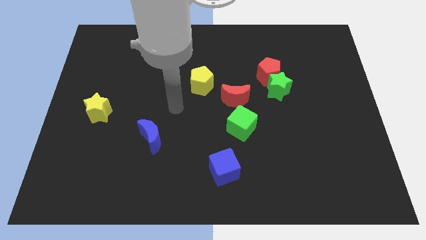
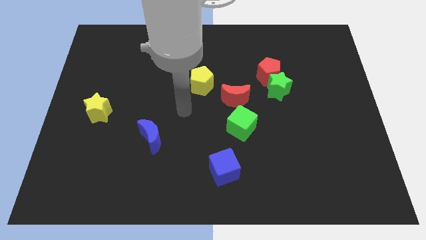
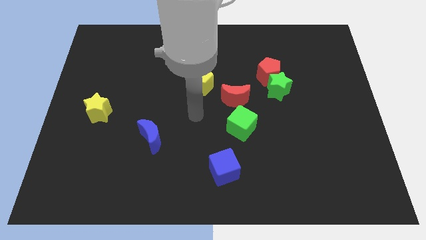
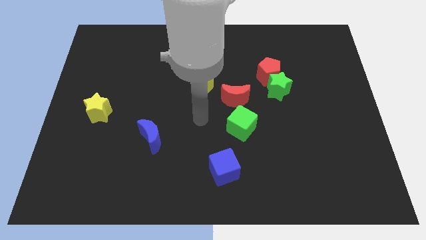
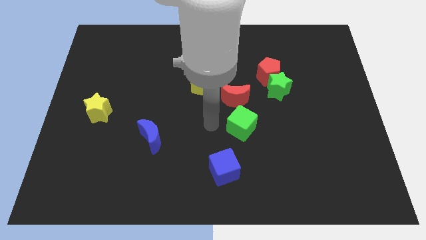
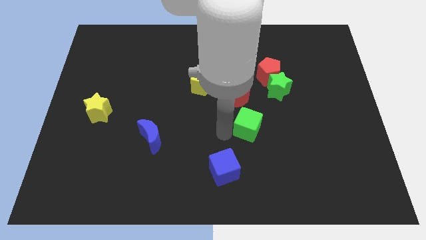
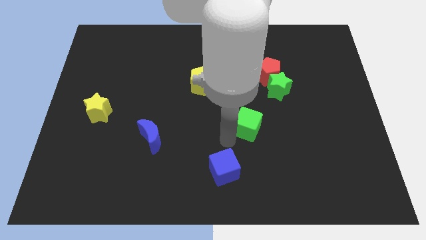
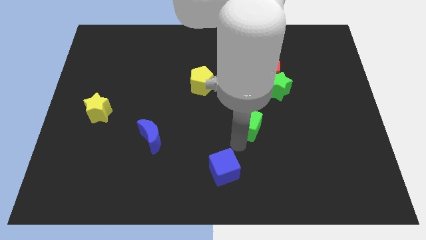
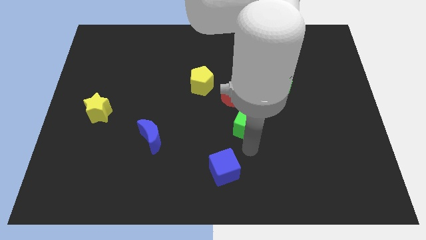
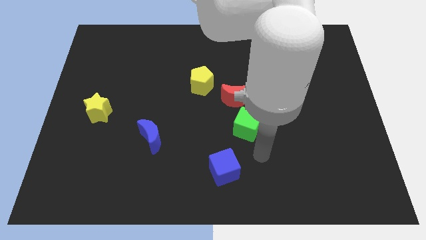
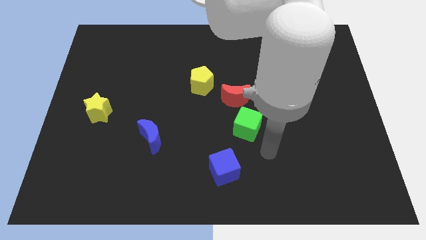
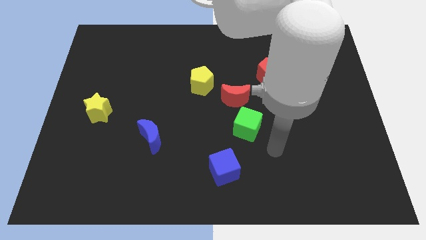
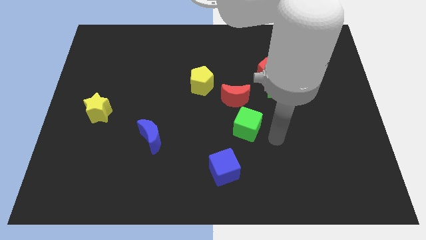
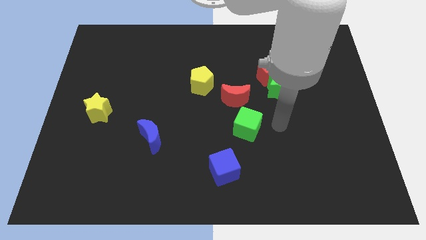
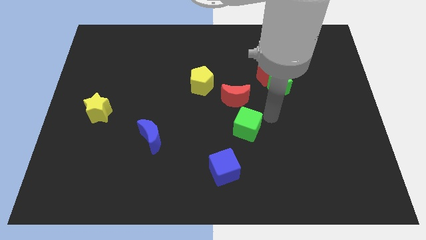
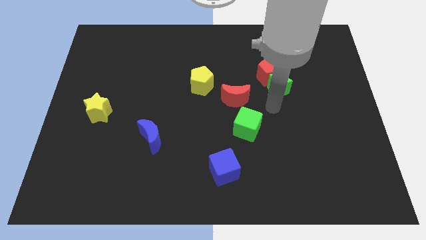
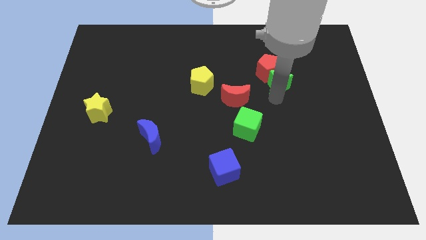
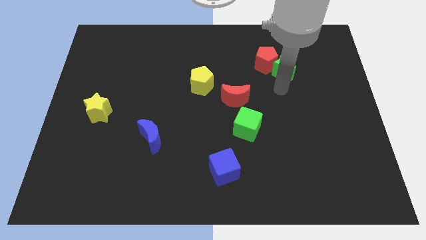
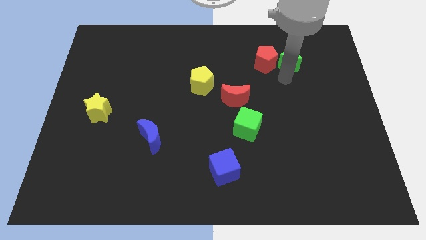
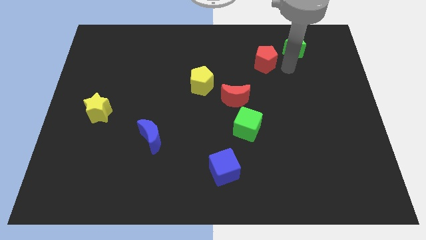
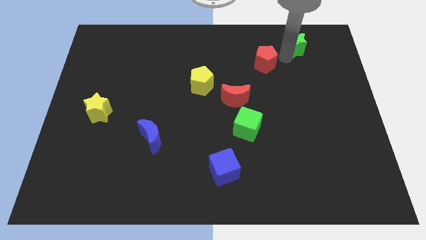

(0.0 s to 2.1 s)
separate the red pentagon from the green star

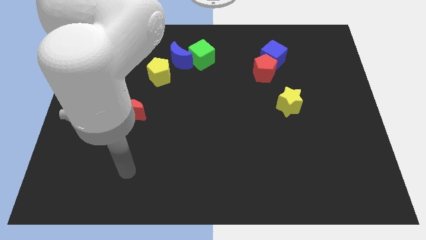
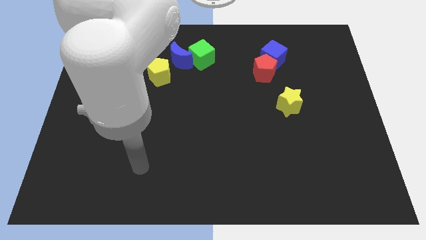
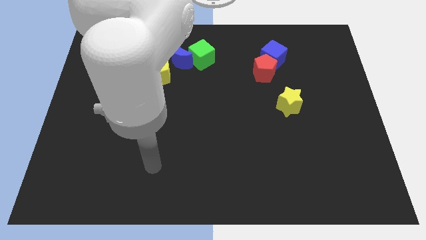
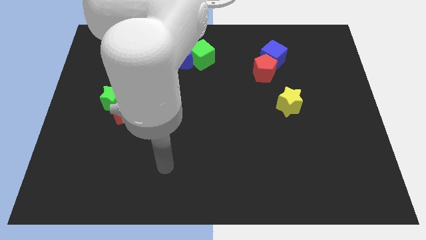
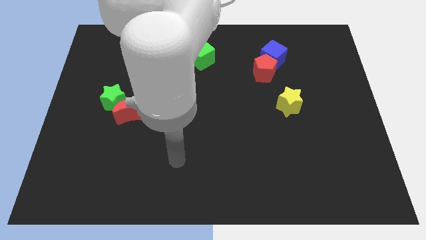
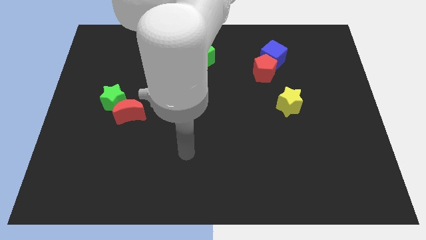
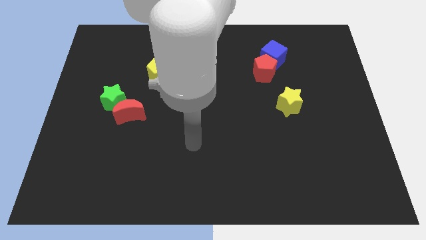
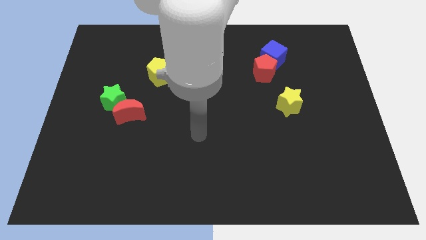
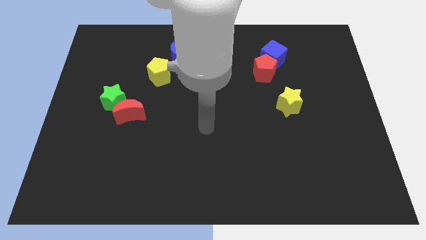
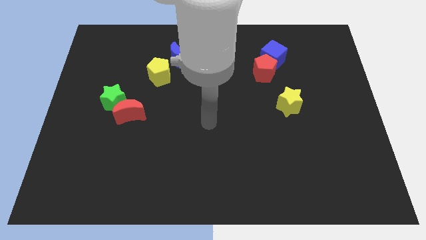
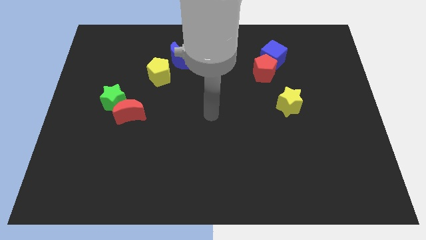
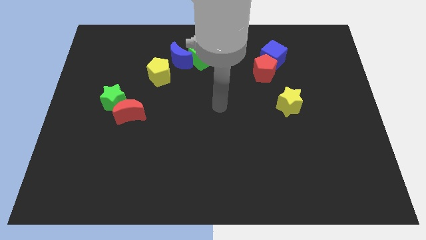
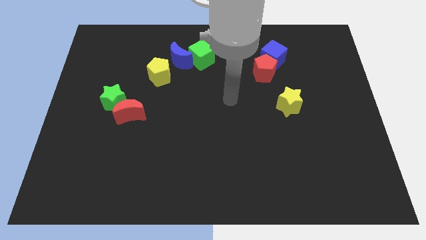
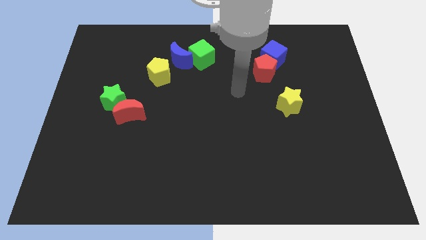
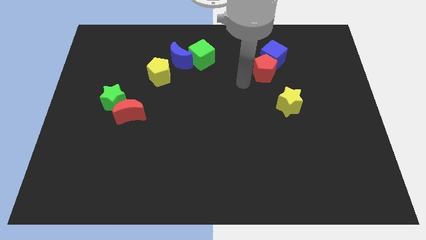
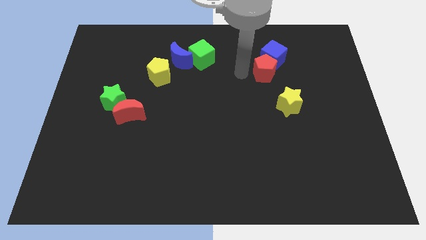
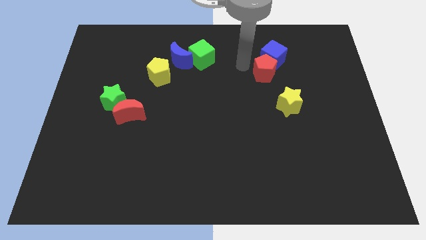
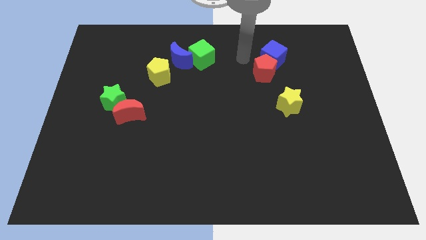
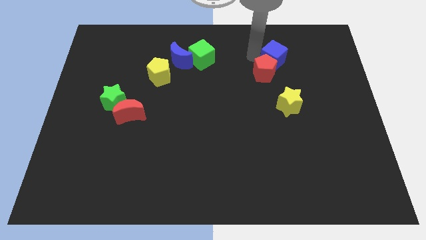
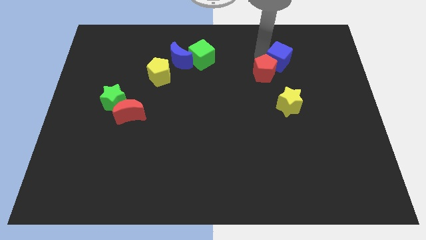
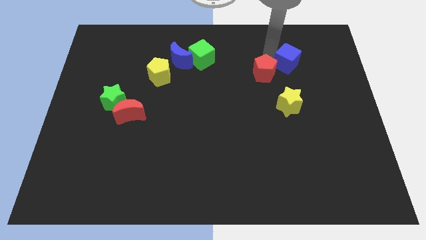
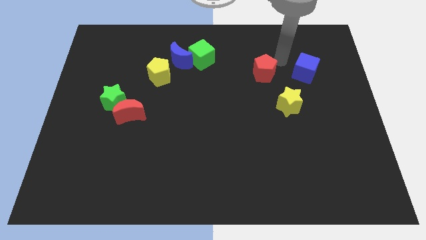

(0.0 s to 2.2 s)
pull the red pentagon apart from the blue cube

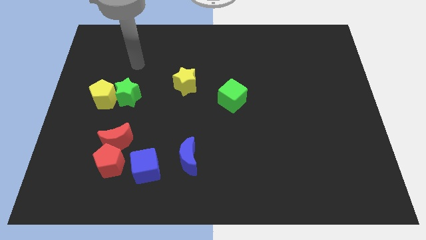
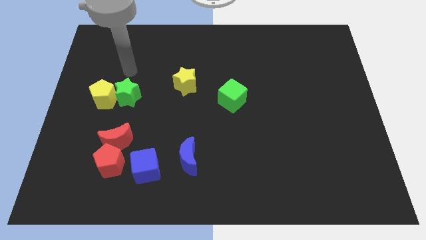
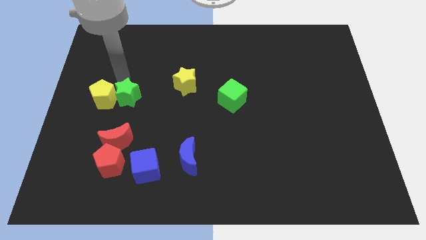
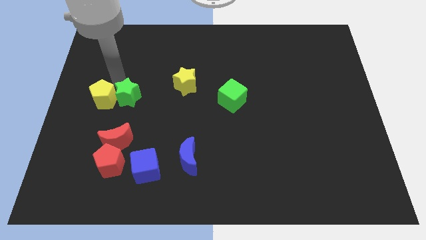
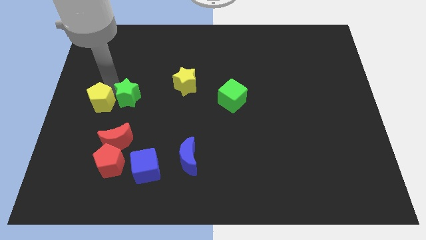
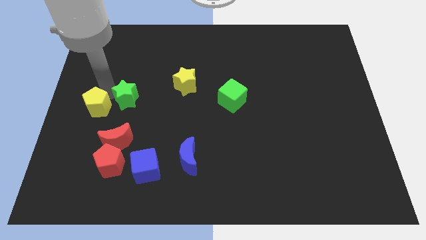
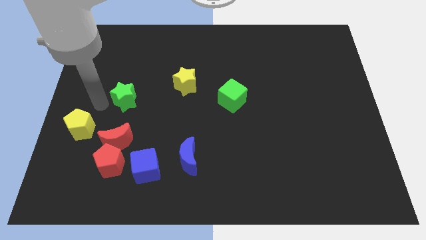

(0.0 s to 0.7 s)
move the green star away from the yellow pentagon

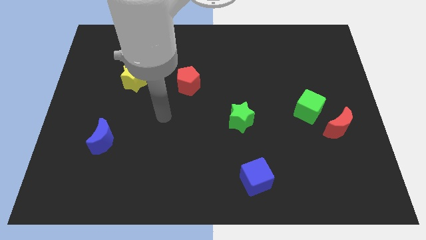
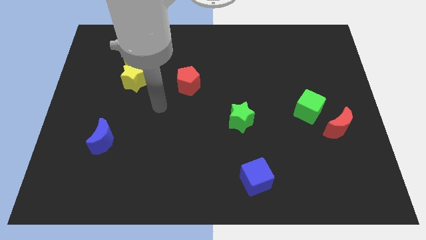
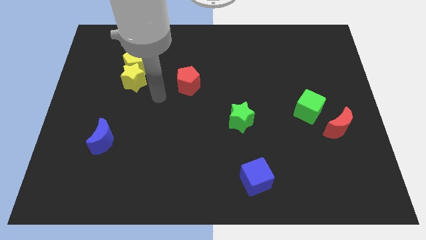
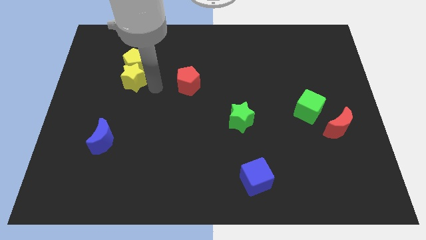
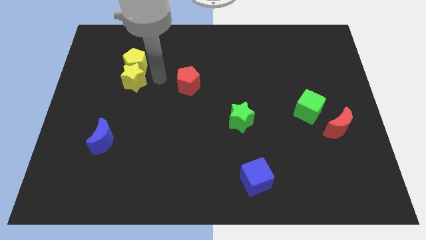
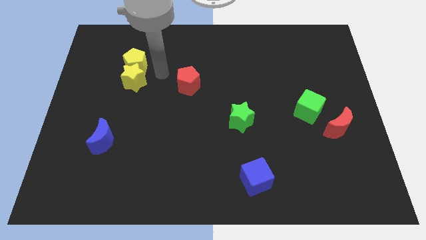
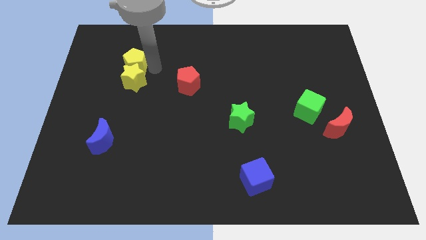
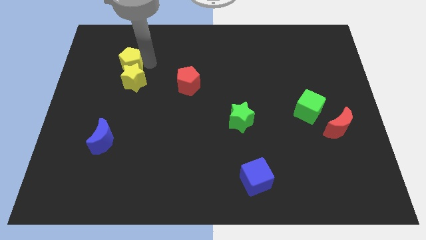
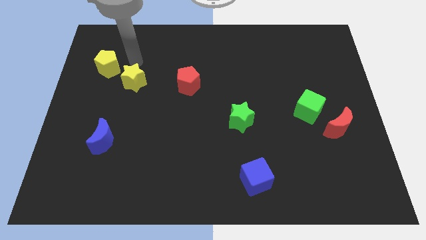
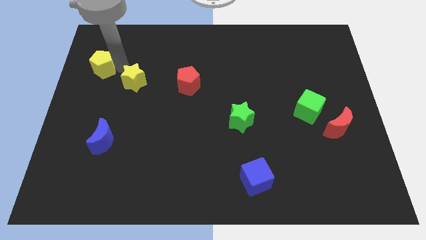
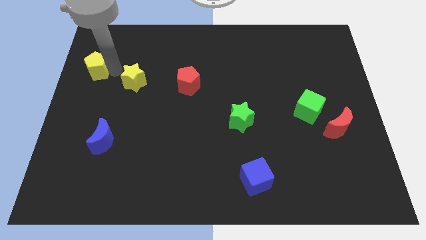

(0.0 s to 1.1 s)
move the yellow star away from the yellow pentagon

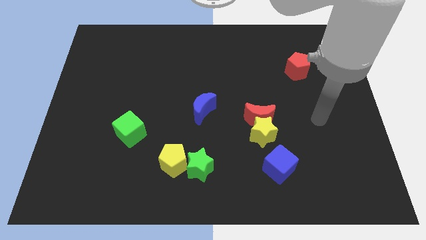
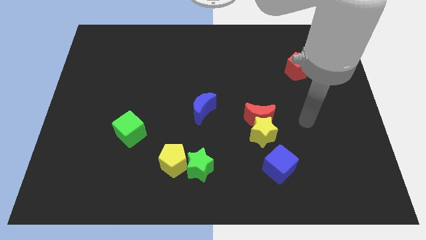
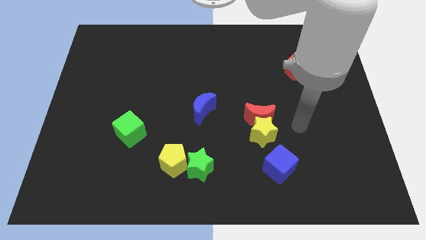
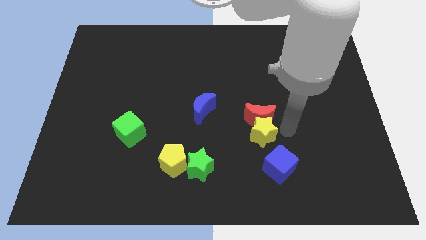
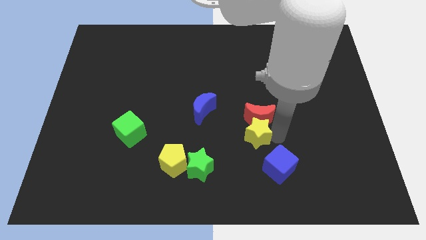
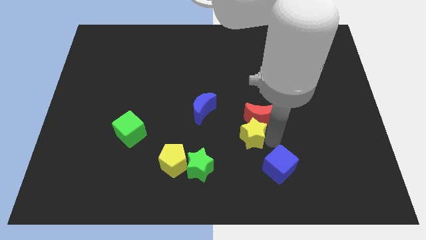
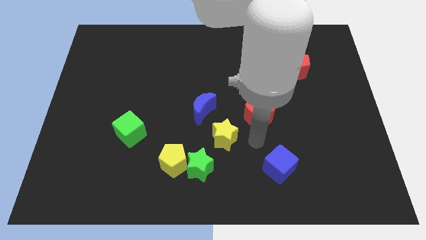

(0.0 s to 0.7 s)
move the red moon away from the yellow star

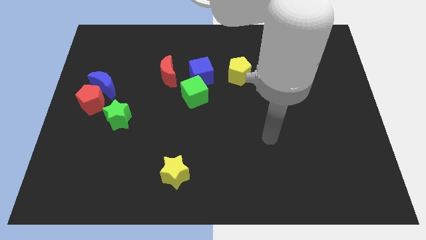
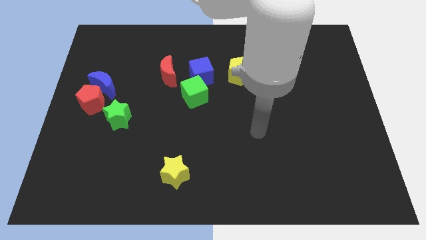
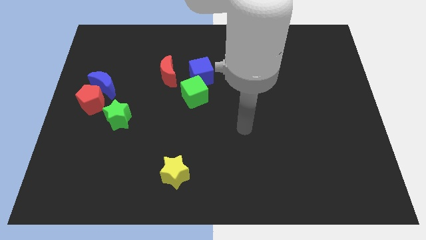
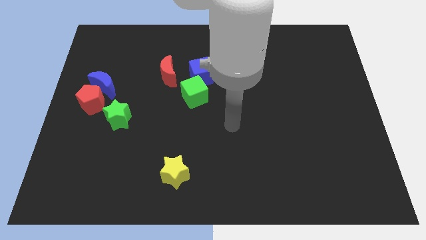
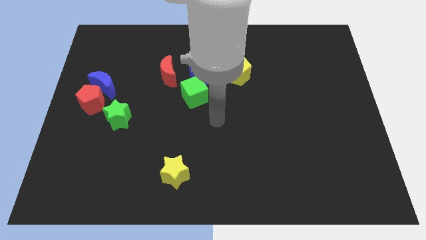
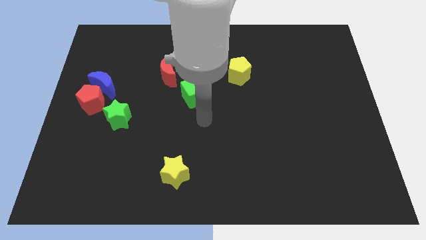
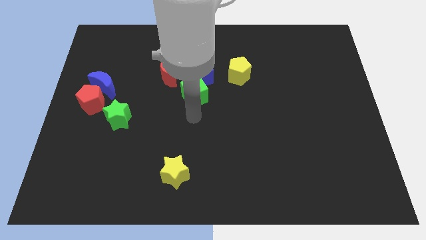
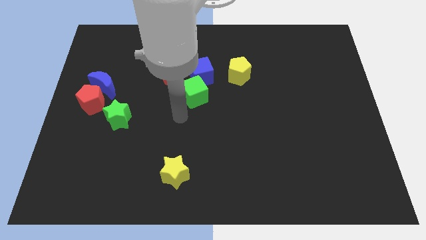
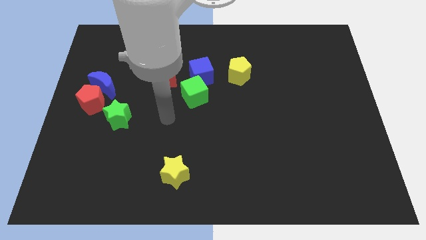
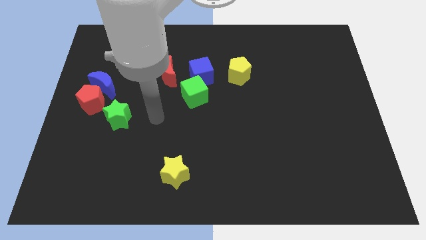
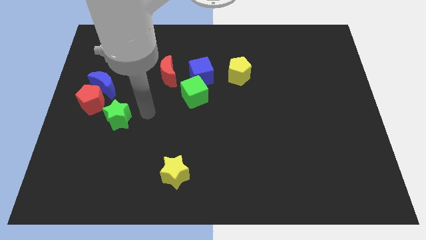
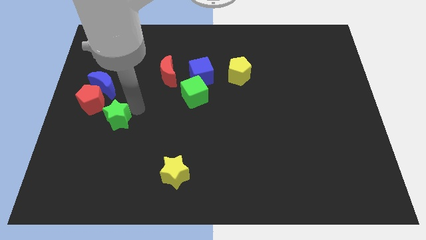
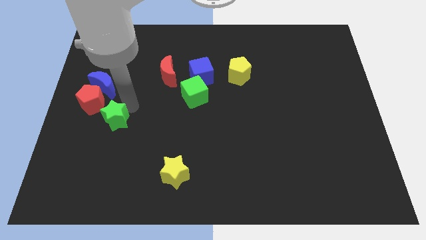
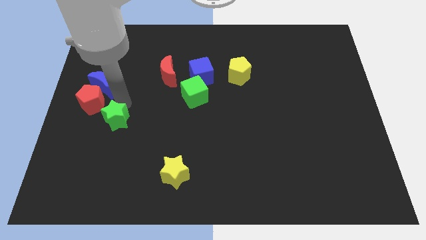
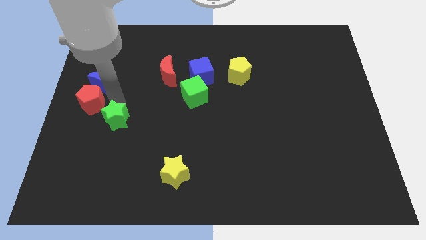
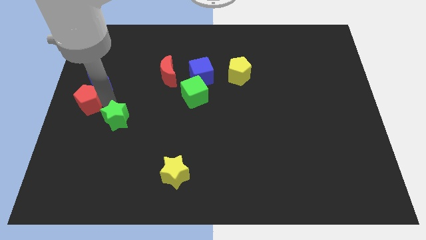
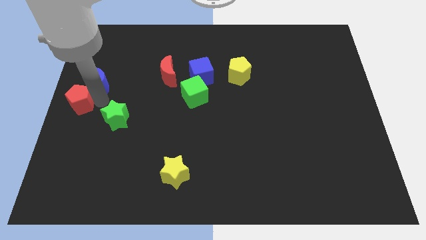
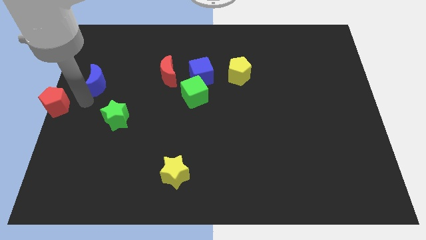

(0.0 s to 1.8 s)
move the blue moon away from the red pentagon

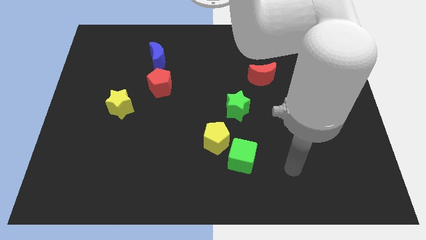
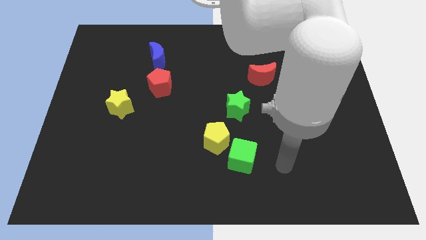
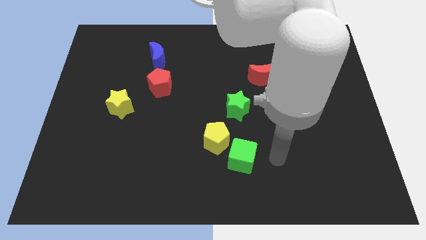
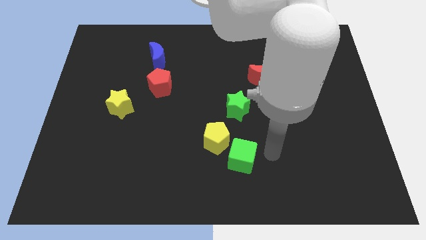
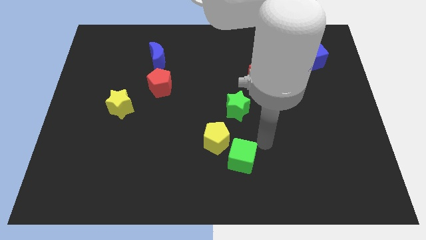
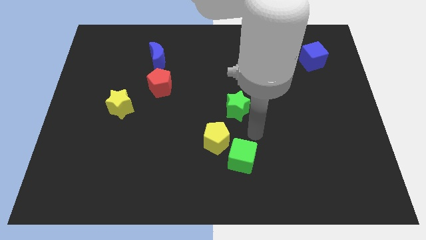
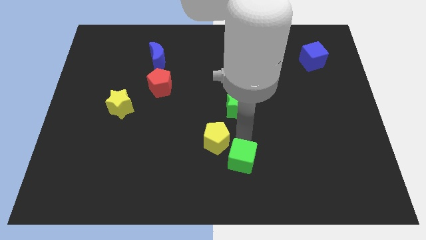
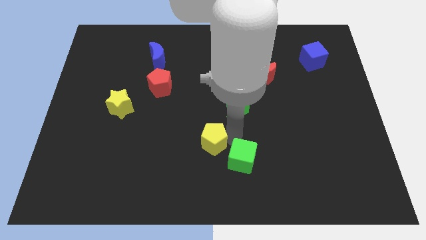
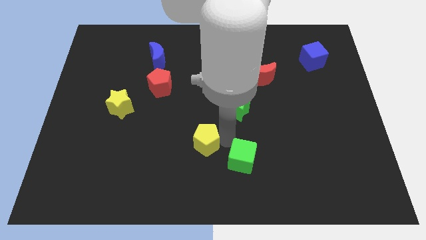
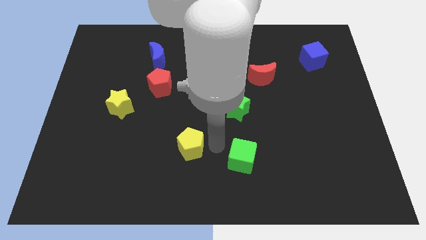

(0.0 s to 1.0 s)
pull the green cube apart from the yellow pentagon
